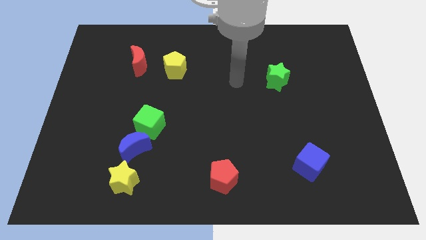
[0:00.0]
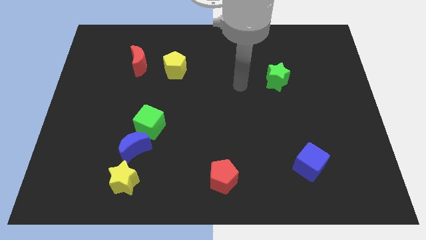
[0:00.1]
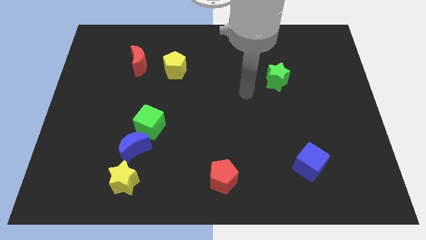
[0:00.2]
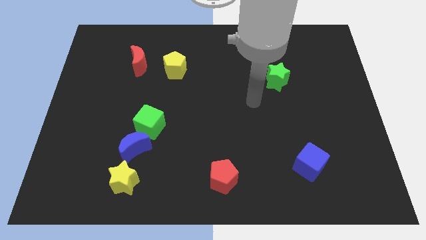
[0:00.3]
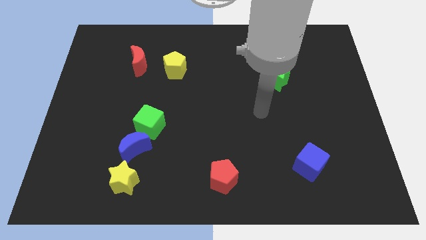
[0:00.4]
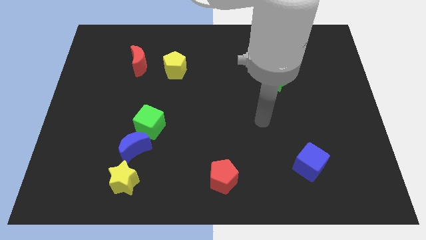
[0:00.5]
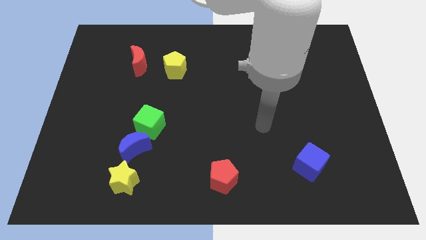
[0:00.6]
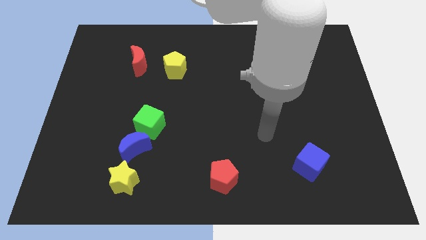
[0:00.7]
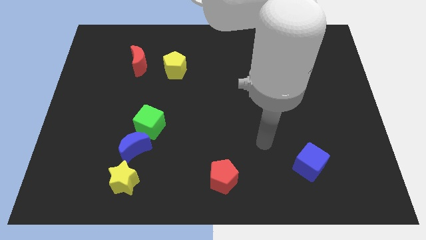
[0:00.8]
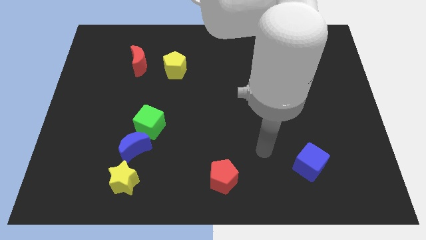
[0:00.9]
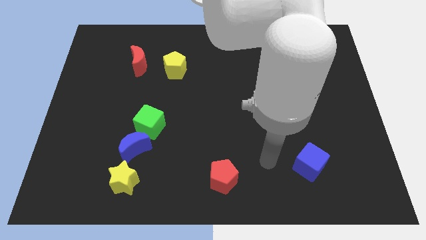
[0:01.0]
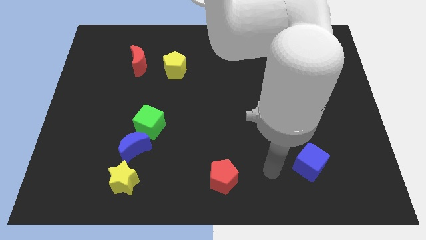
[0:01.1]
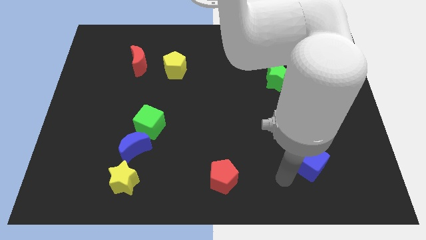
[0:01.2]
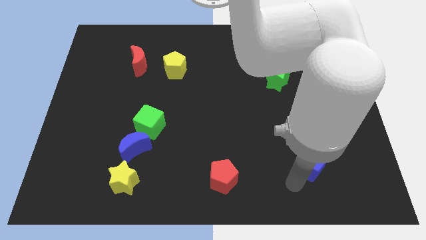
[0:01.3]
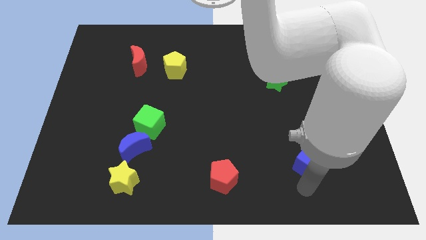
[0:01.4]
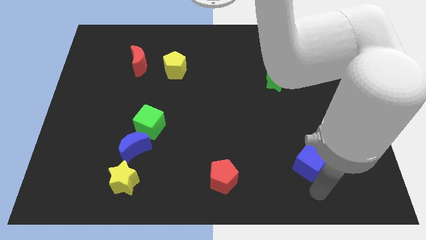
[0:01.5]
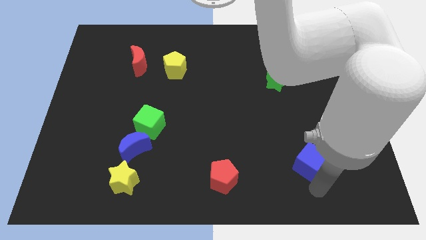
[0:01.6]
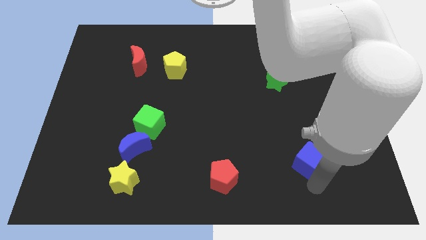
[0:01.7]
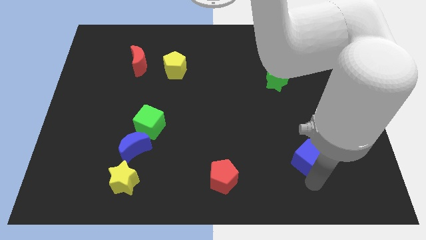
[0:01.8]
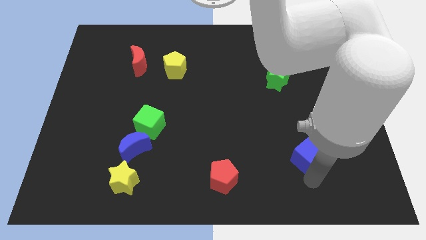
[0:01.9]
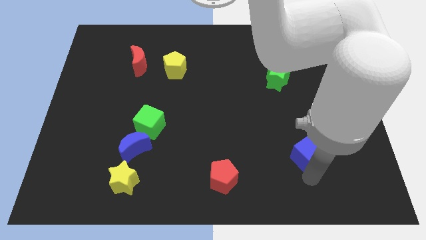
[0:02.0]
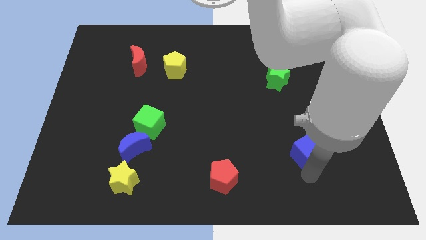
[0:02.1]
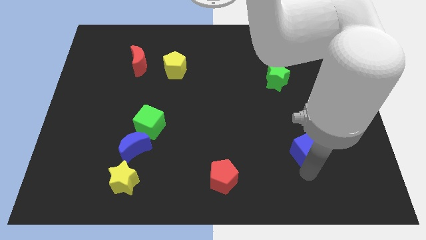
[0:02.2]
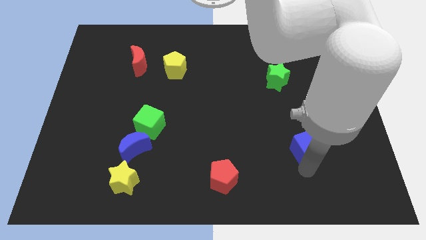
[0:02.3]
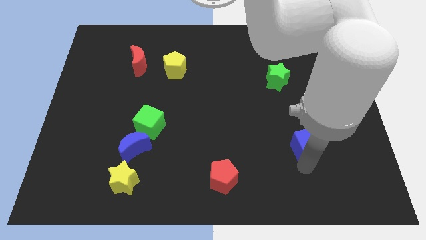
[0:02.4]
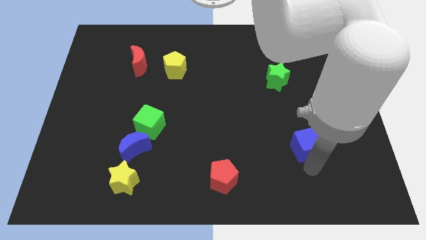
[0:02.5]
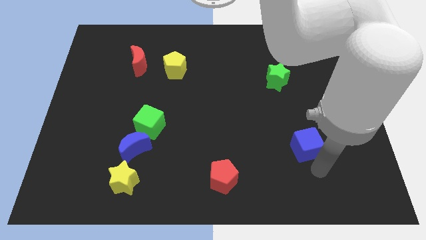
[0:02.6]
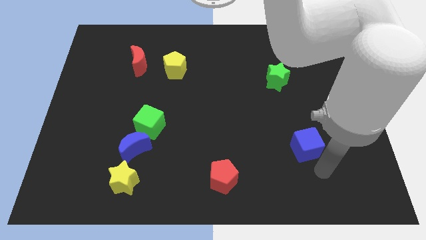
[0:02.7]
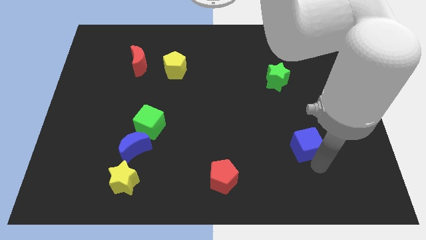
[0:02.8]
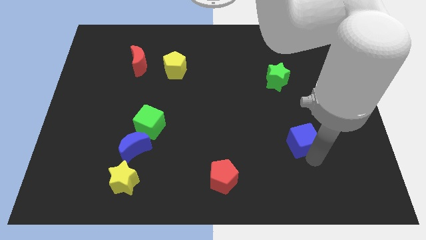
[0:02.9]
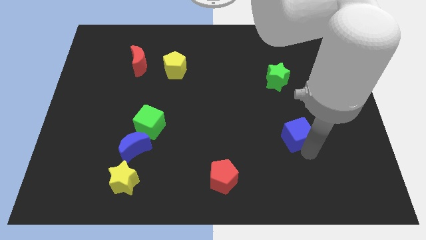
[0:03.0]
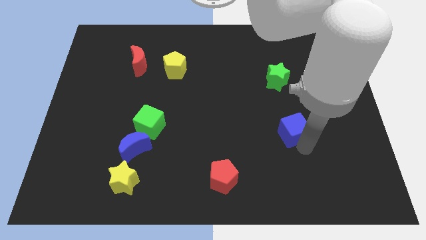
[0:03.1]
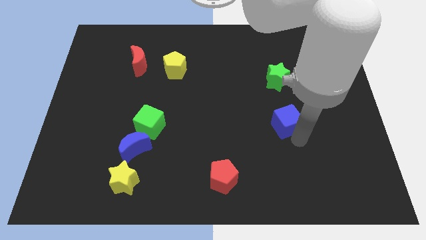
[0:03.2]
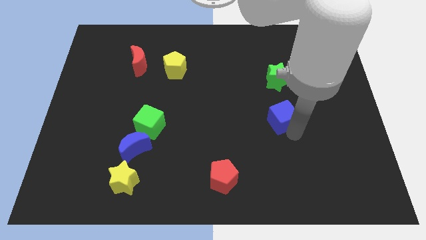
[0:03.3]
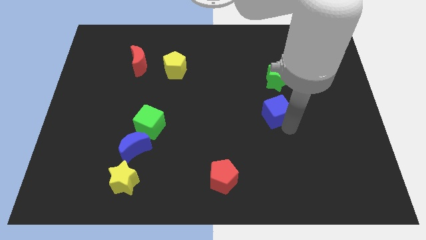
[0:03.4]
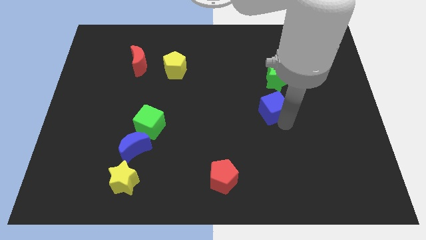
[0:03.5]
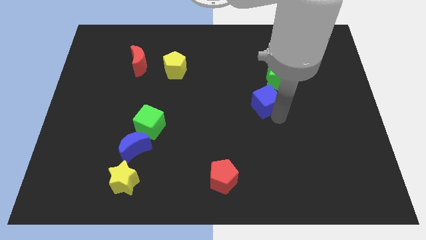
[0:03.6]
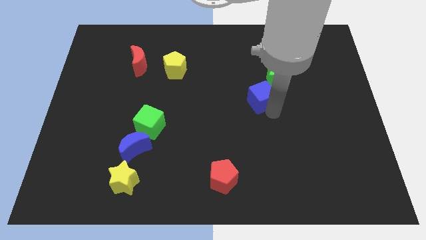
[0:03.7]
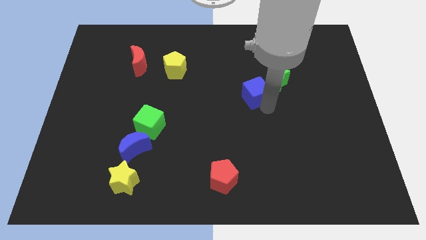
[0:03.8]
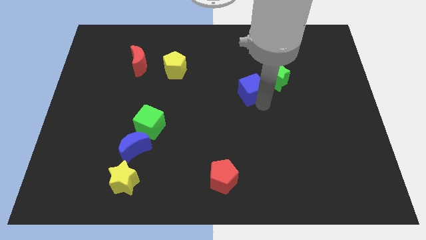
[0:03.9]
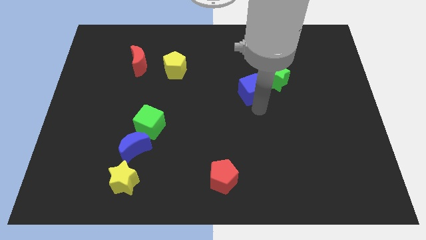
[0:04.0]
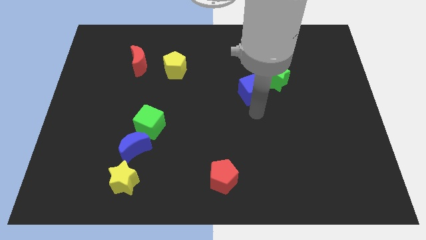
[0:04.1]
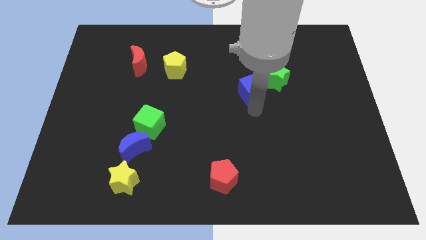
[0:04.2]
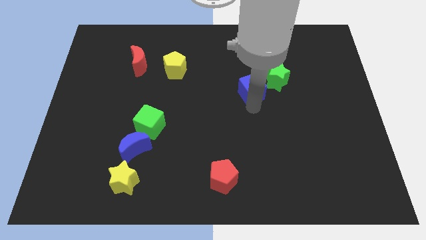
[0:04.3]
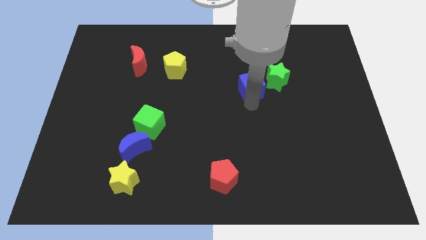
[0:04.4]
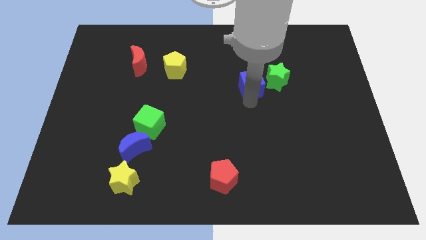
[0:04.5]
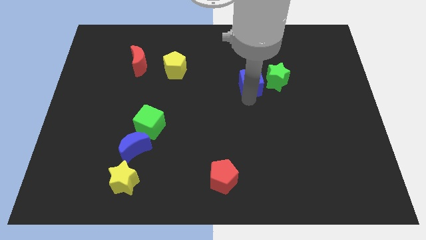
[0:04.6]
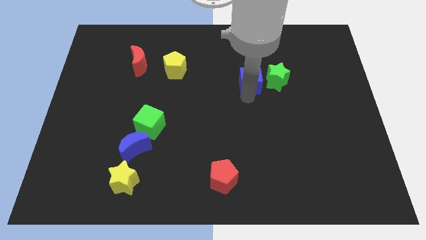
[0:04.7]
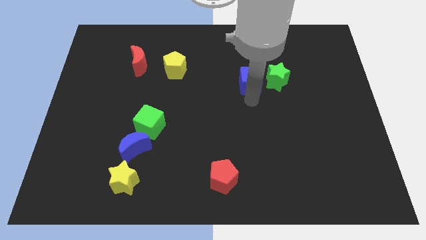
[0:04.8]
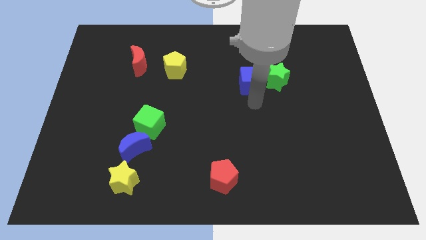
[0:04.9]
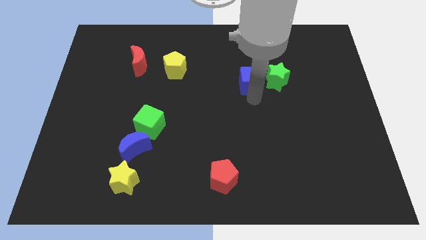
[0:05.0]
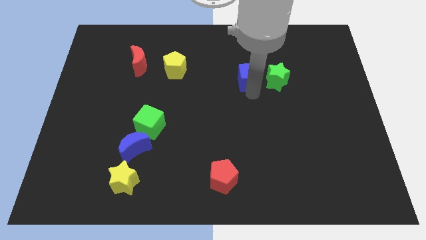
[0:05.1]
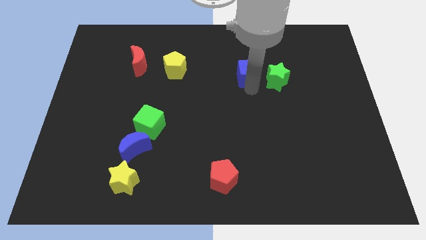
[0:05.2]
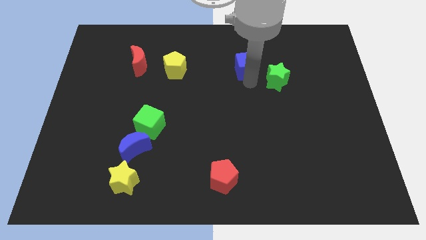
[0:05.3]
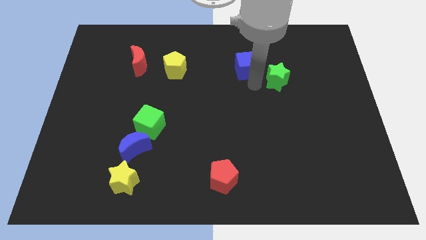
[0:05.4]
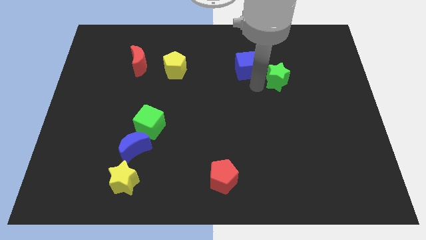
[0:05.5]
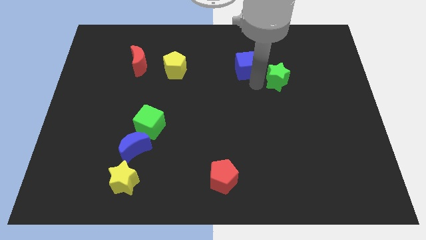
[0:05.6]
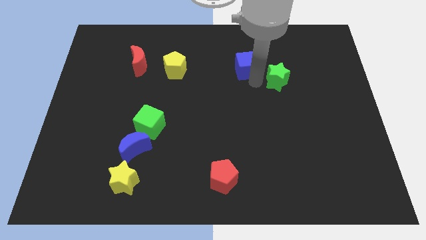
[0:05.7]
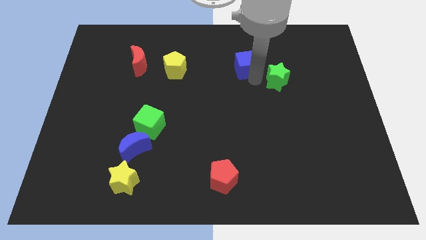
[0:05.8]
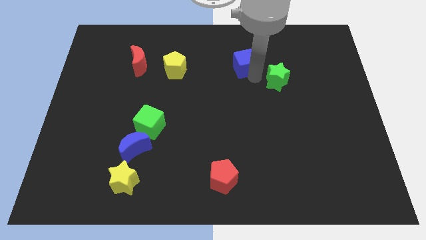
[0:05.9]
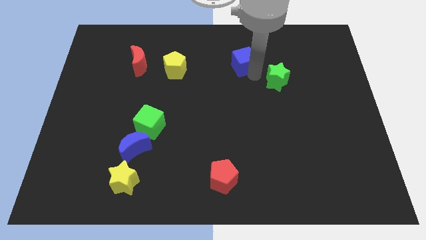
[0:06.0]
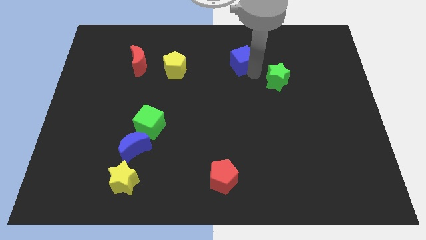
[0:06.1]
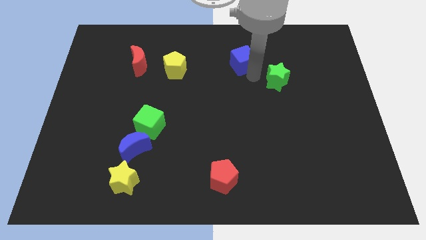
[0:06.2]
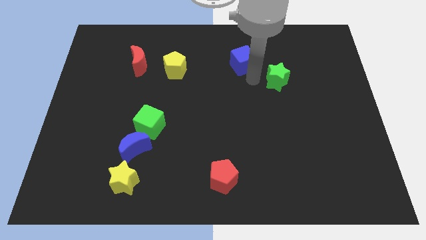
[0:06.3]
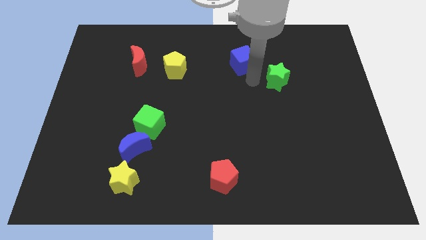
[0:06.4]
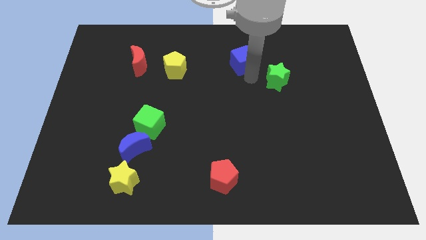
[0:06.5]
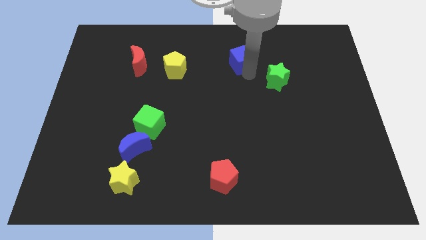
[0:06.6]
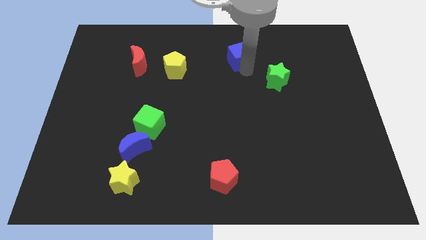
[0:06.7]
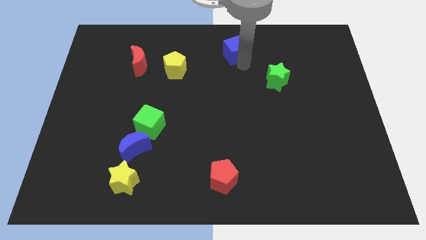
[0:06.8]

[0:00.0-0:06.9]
push the blue cube to the top side
